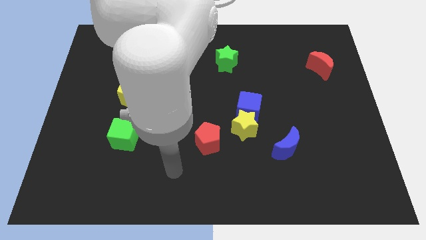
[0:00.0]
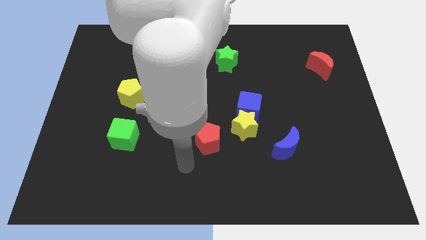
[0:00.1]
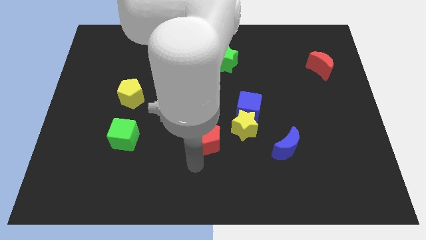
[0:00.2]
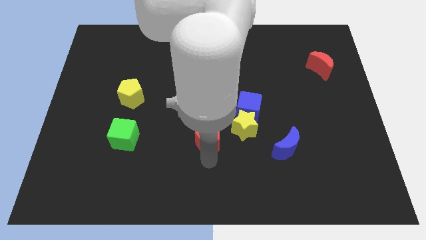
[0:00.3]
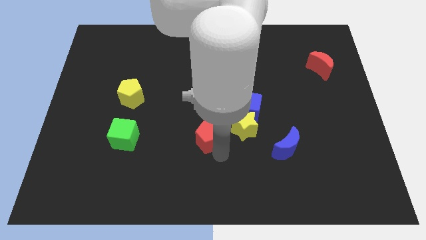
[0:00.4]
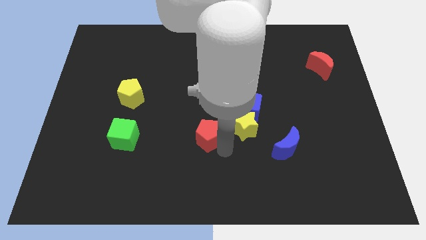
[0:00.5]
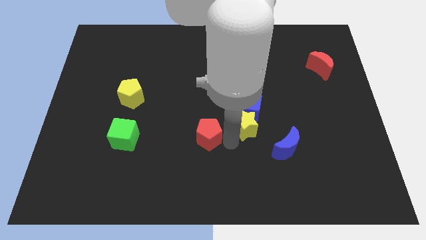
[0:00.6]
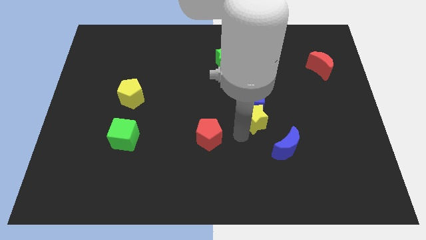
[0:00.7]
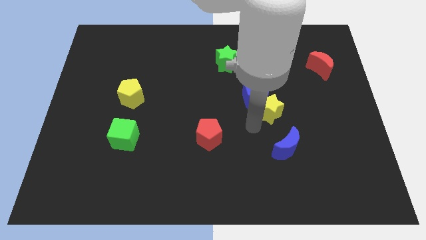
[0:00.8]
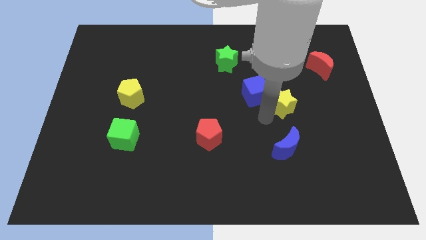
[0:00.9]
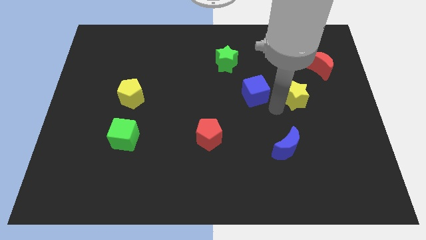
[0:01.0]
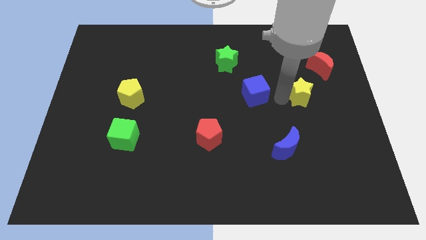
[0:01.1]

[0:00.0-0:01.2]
separate the blue cube from the yellow star

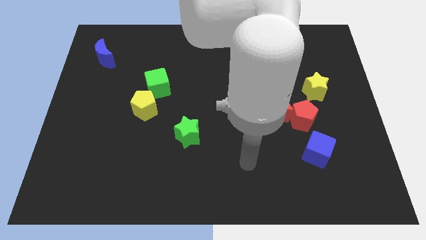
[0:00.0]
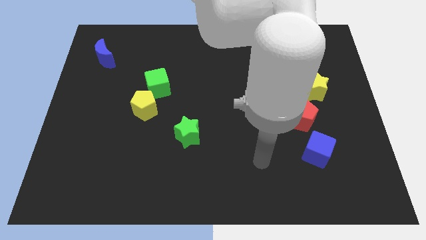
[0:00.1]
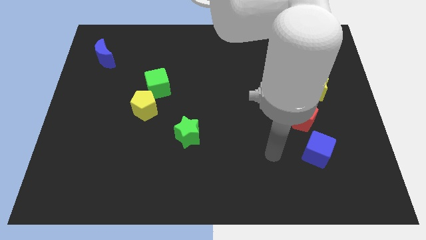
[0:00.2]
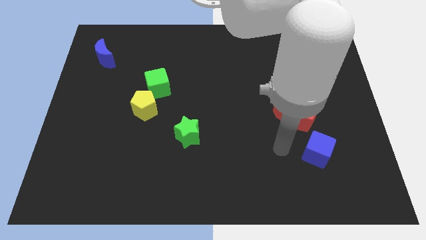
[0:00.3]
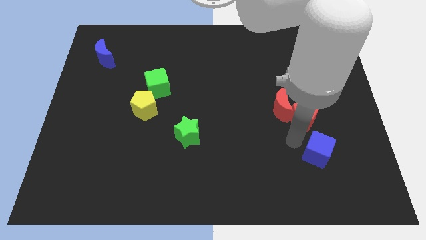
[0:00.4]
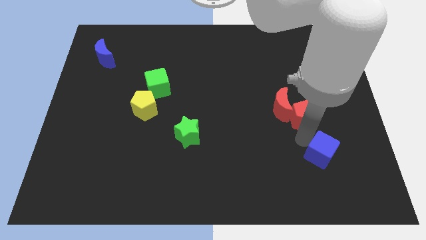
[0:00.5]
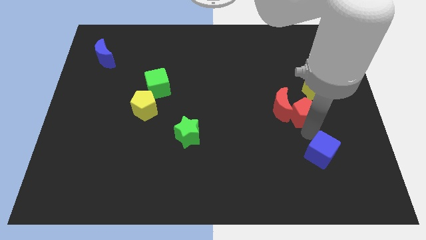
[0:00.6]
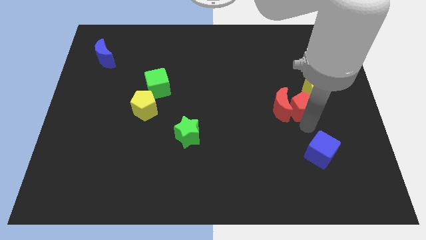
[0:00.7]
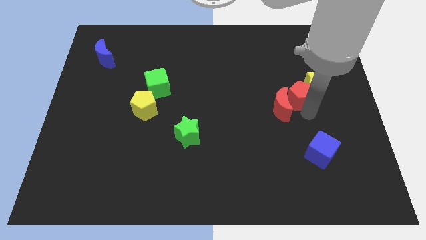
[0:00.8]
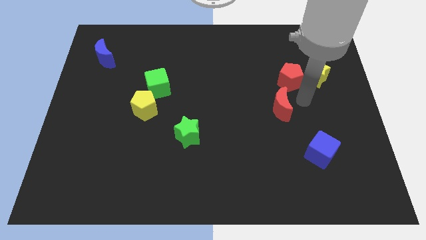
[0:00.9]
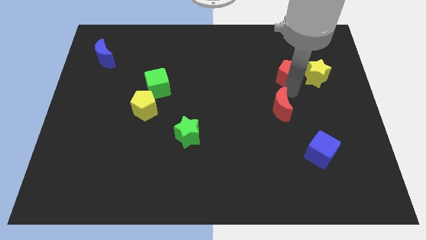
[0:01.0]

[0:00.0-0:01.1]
move the red moon away from the red pentagon

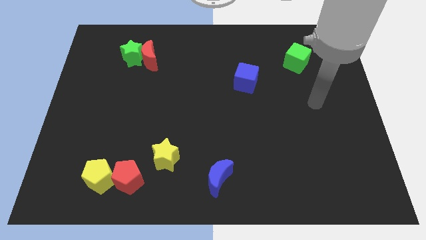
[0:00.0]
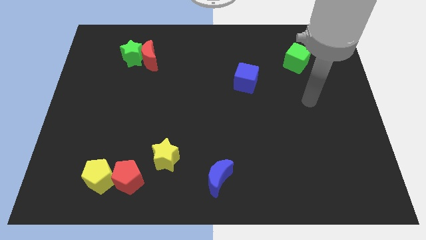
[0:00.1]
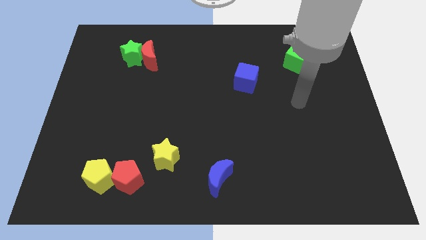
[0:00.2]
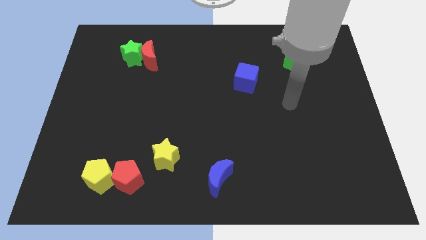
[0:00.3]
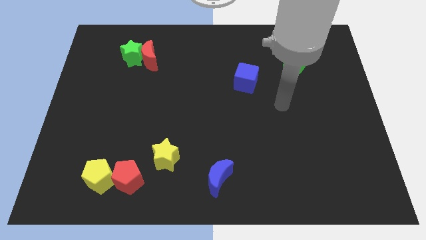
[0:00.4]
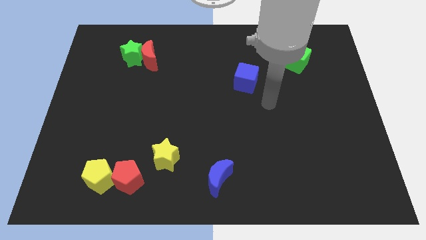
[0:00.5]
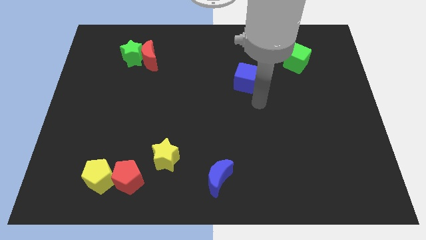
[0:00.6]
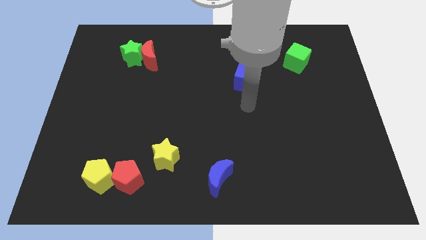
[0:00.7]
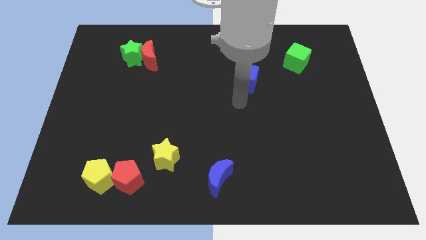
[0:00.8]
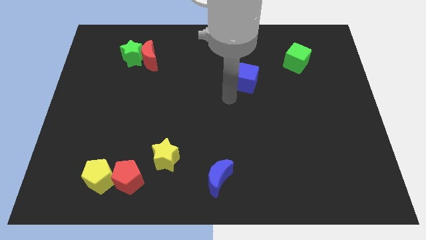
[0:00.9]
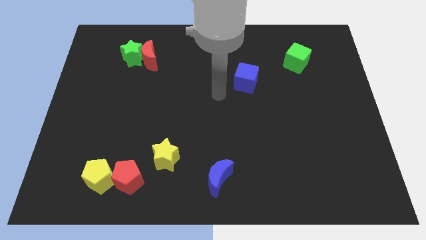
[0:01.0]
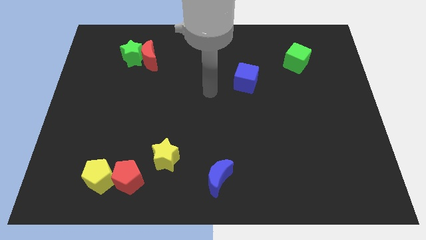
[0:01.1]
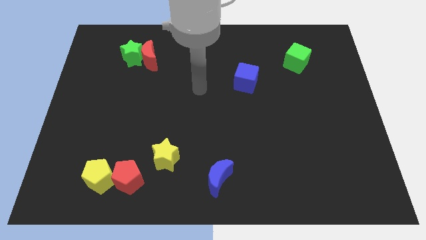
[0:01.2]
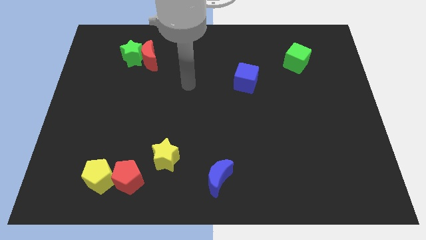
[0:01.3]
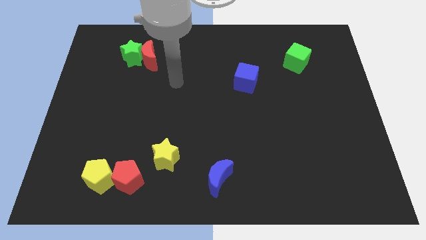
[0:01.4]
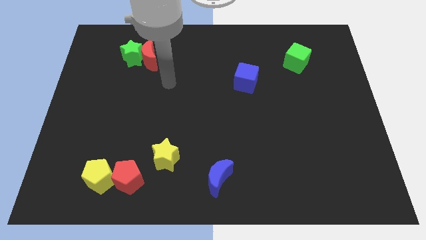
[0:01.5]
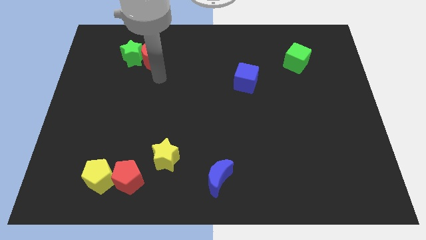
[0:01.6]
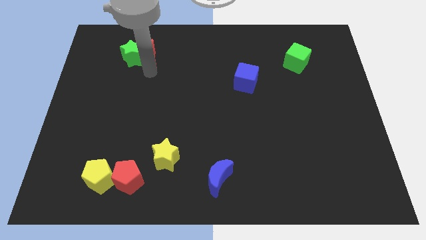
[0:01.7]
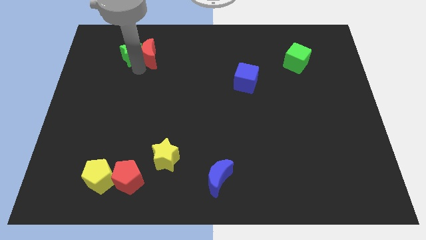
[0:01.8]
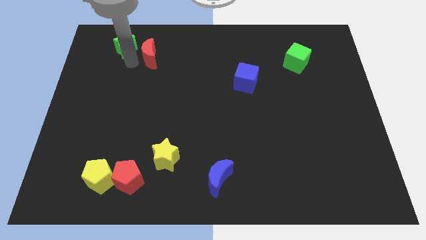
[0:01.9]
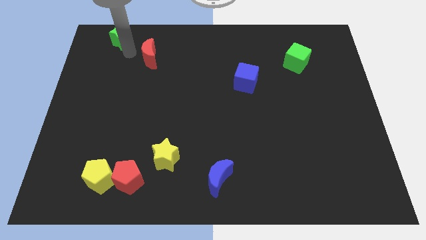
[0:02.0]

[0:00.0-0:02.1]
move the red moon away from the green star

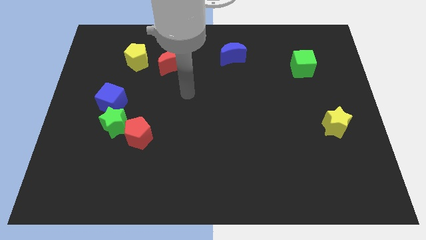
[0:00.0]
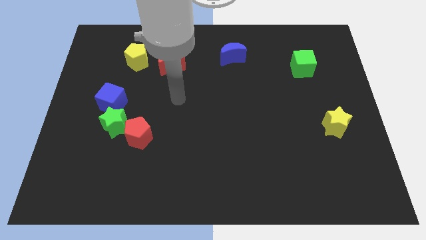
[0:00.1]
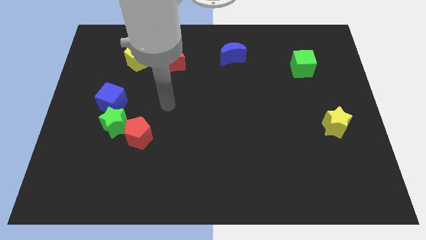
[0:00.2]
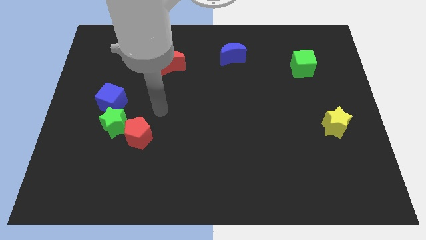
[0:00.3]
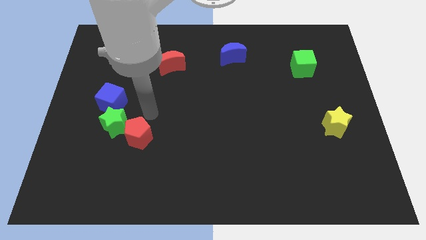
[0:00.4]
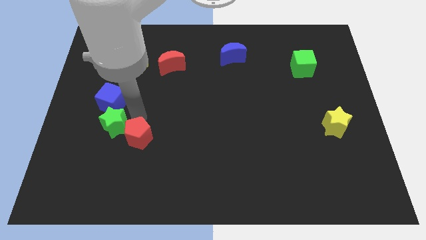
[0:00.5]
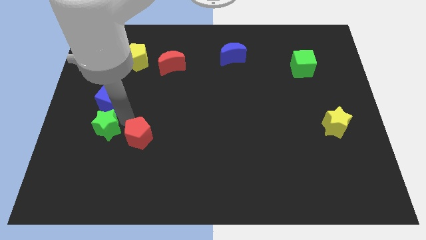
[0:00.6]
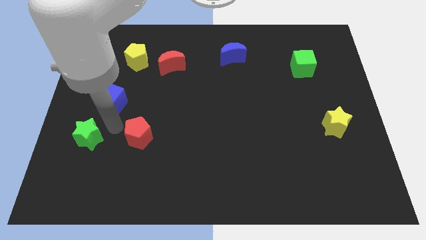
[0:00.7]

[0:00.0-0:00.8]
move the red pentagon away from the green star

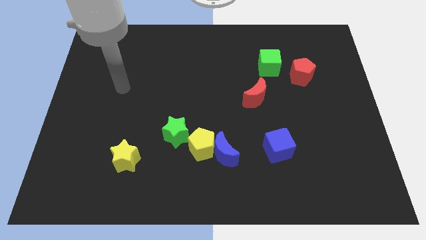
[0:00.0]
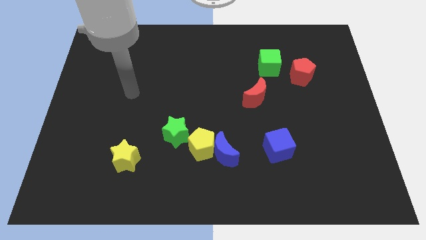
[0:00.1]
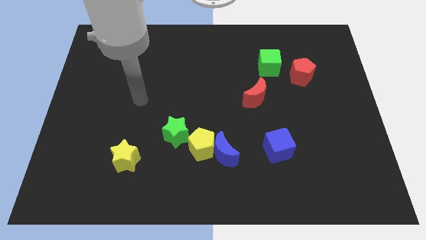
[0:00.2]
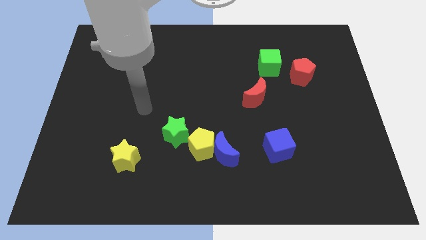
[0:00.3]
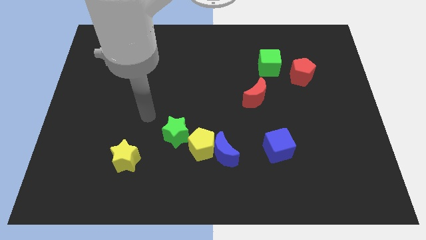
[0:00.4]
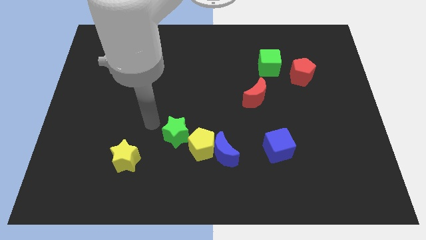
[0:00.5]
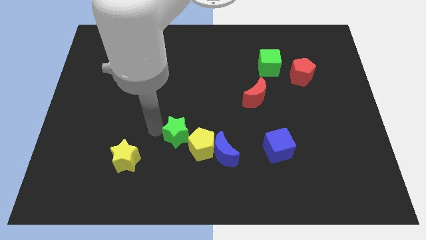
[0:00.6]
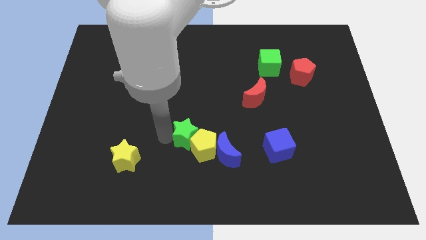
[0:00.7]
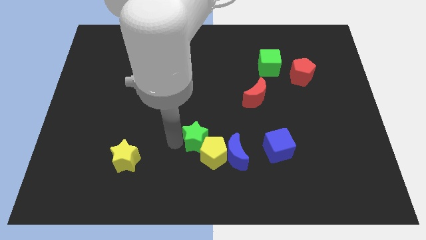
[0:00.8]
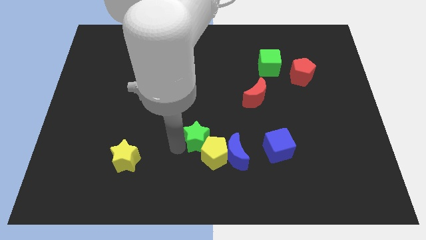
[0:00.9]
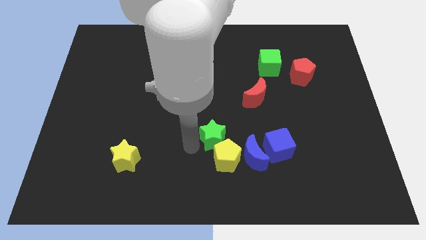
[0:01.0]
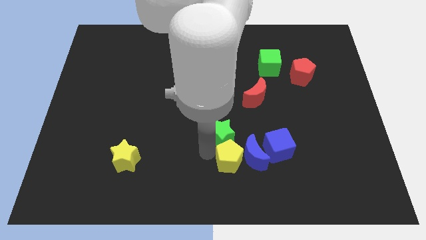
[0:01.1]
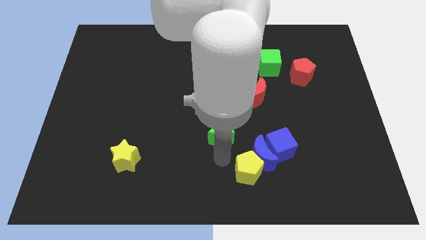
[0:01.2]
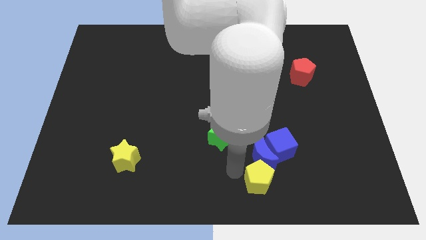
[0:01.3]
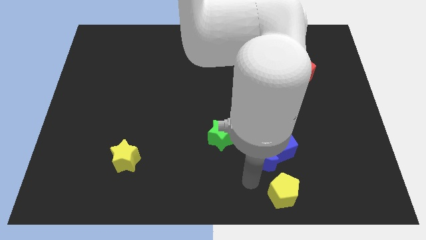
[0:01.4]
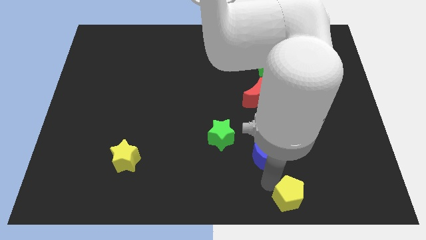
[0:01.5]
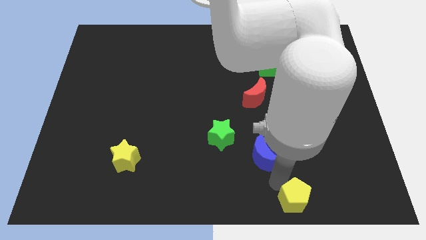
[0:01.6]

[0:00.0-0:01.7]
move the blue moon away from the yellow pentagon

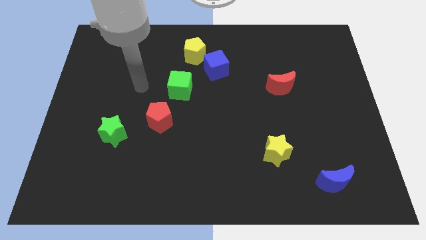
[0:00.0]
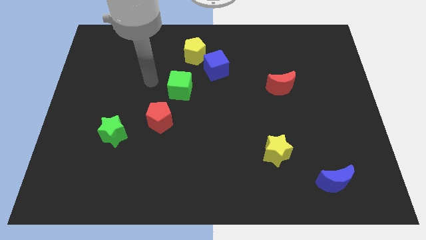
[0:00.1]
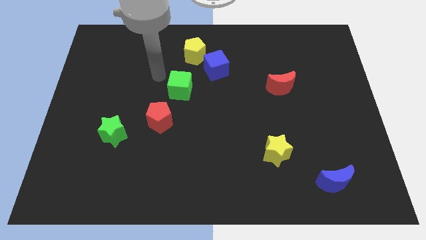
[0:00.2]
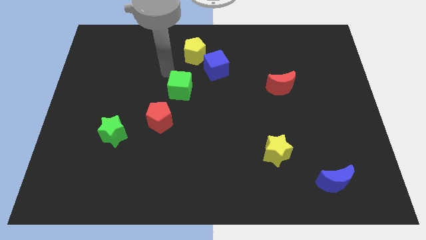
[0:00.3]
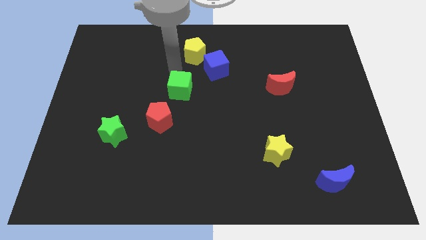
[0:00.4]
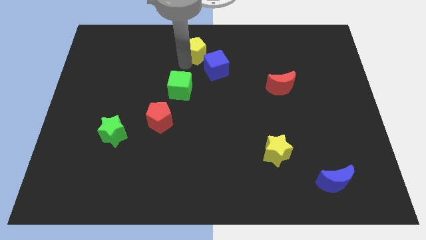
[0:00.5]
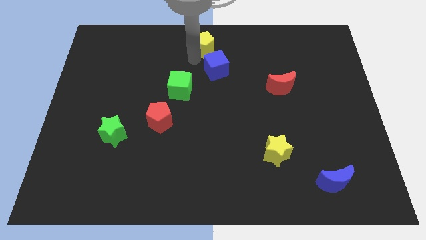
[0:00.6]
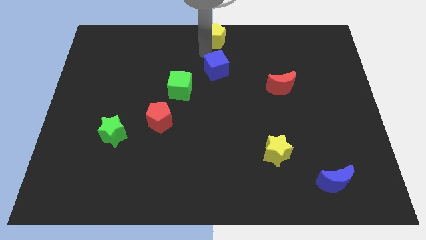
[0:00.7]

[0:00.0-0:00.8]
pull the blue cube apart from the yellow pentagon

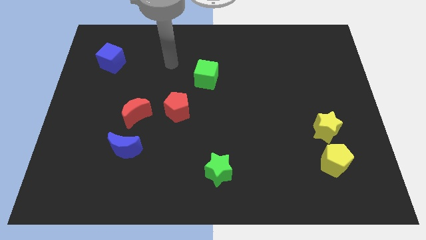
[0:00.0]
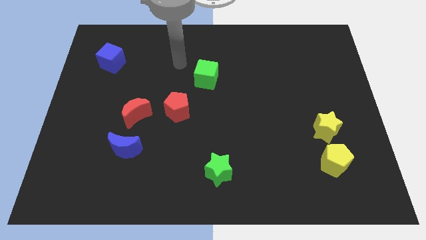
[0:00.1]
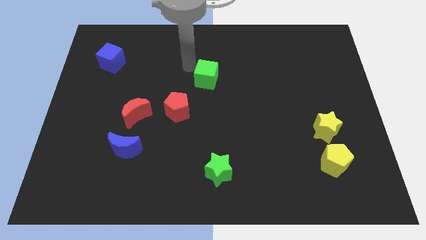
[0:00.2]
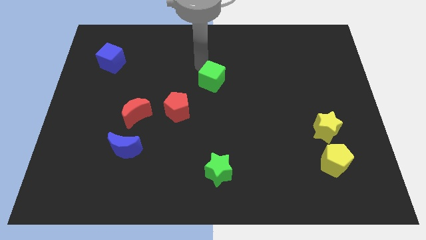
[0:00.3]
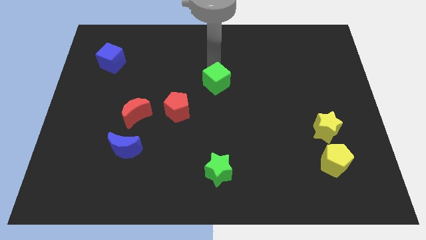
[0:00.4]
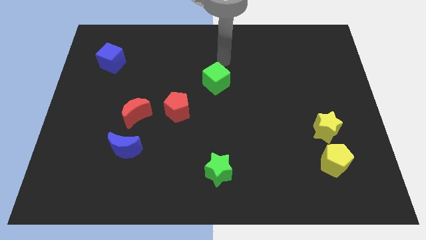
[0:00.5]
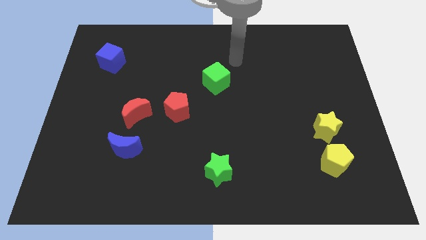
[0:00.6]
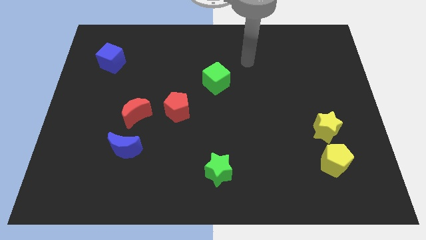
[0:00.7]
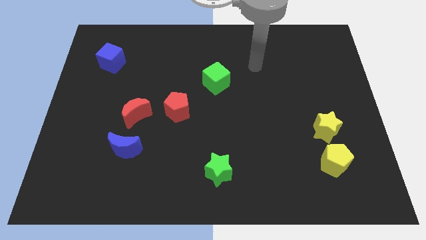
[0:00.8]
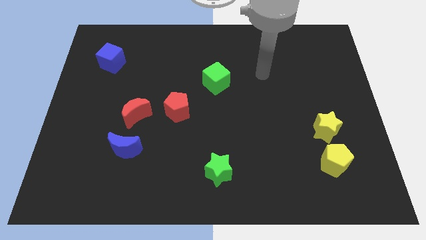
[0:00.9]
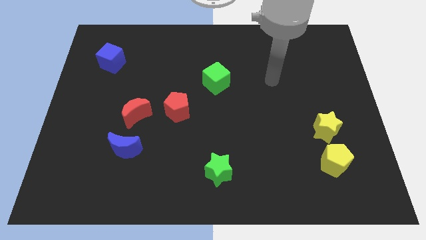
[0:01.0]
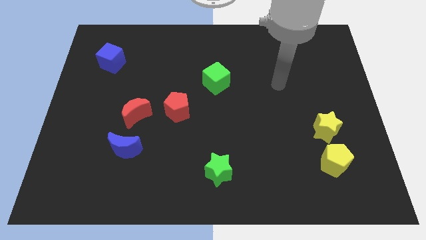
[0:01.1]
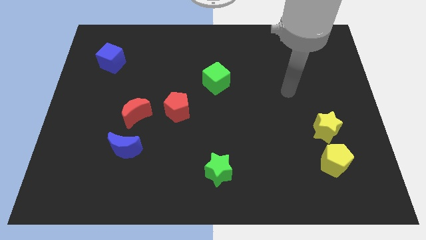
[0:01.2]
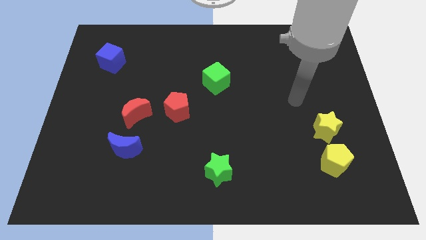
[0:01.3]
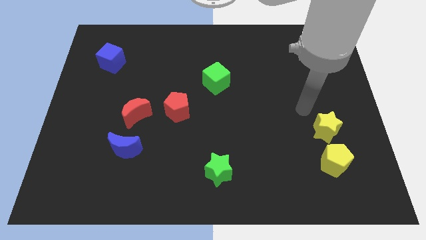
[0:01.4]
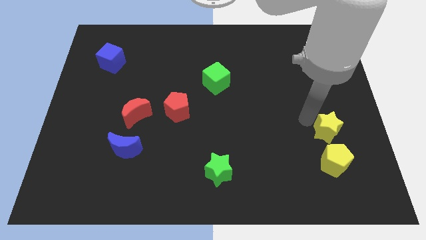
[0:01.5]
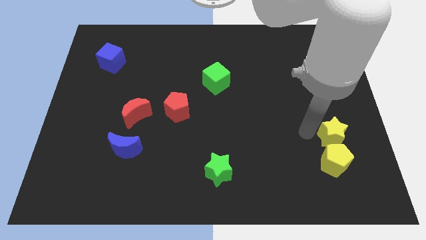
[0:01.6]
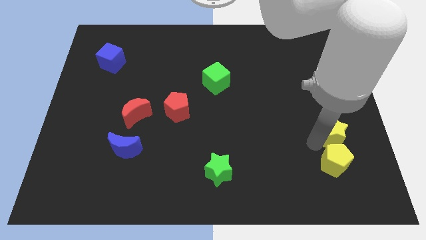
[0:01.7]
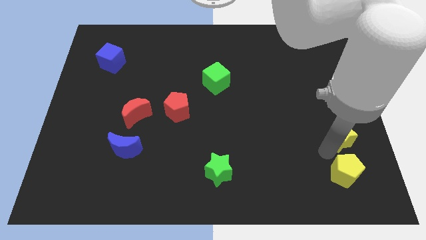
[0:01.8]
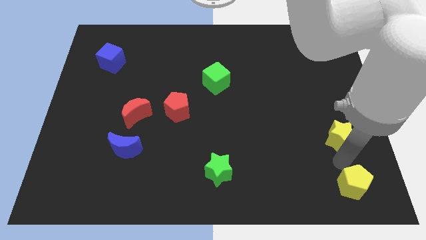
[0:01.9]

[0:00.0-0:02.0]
pull the yellow star apart from the yellow pentagon
